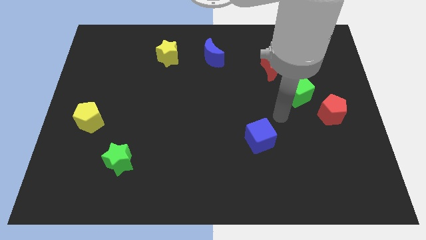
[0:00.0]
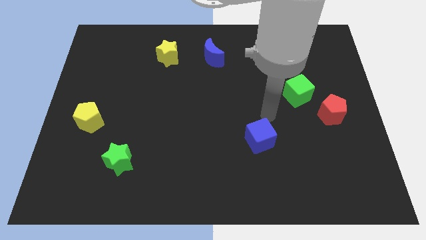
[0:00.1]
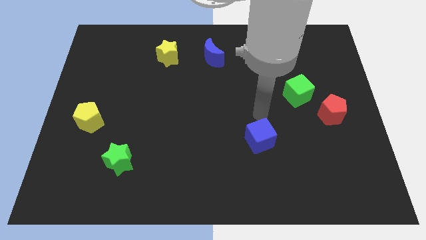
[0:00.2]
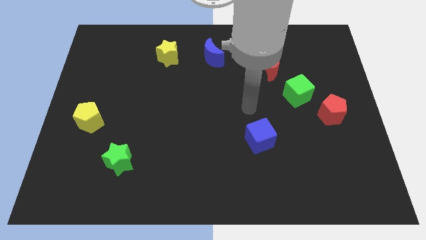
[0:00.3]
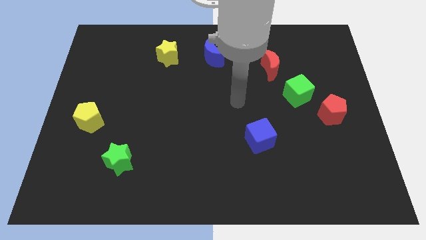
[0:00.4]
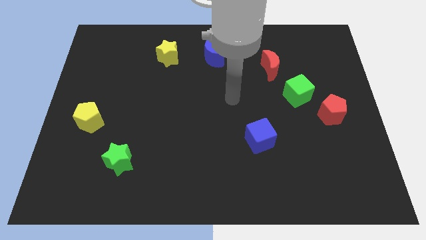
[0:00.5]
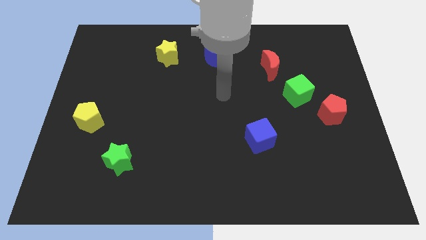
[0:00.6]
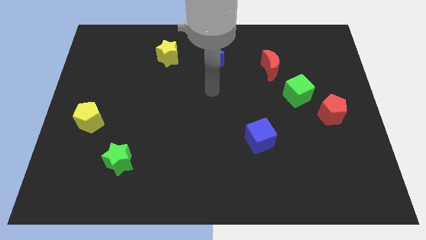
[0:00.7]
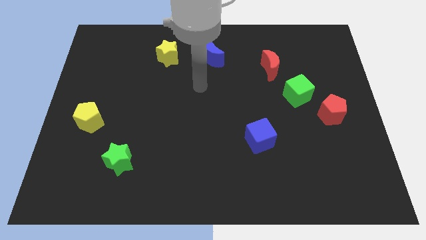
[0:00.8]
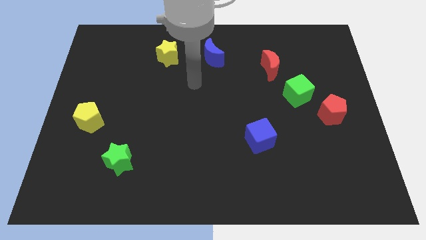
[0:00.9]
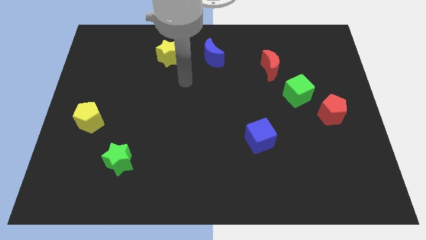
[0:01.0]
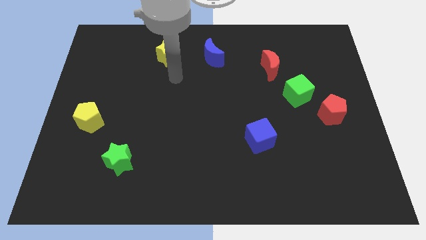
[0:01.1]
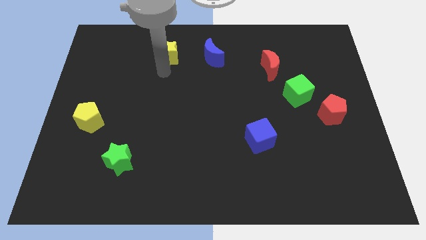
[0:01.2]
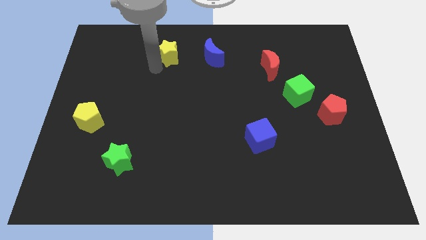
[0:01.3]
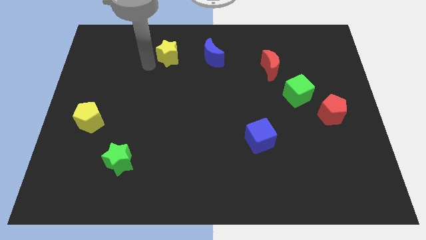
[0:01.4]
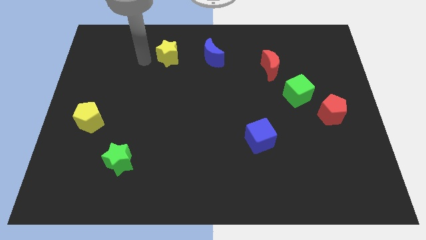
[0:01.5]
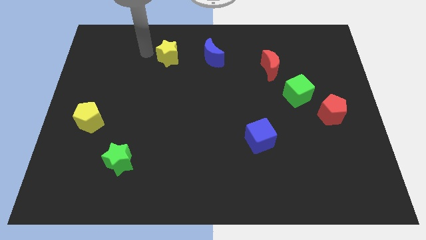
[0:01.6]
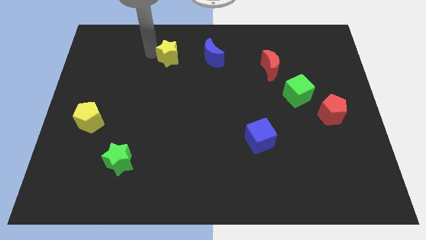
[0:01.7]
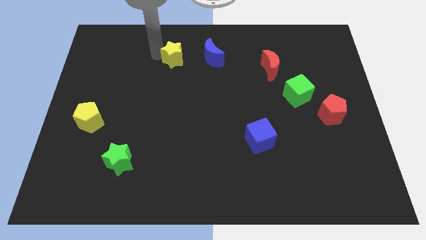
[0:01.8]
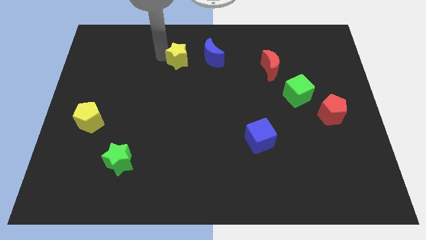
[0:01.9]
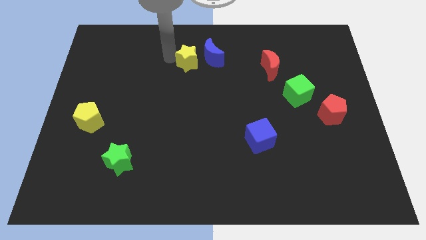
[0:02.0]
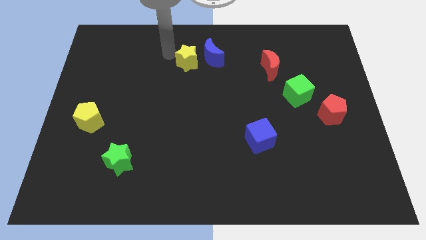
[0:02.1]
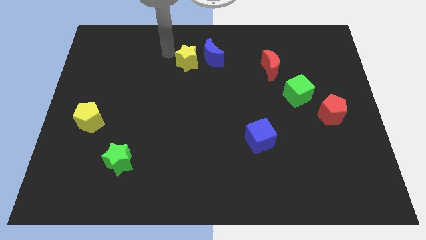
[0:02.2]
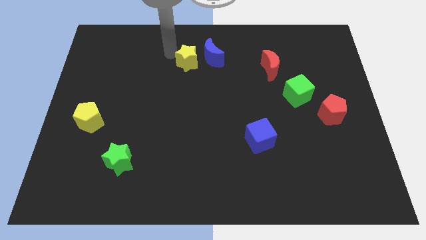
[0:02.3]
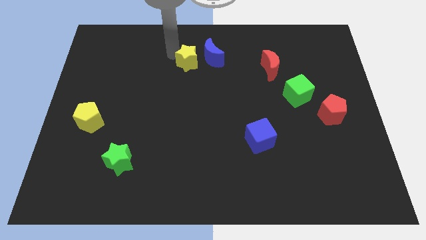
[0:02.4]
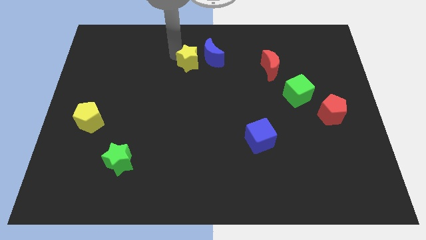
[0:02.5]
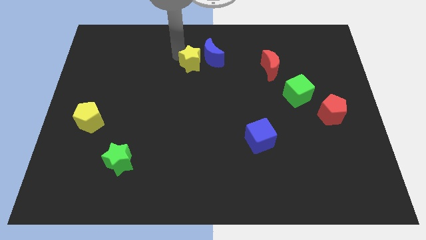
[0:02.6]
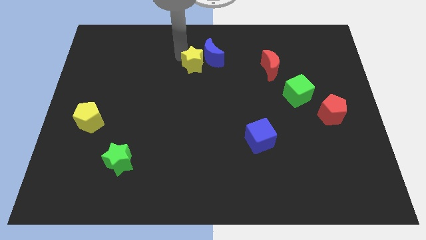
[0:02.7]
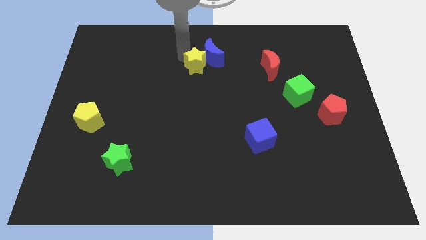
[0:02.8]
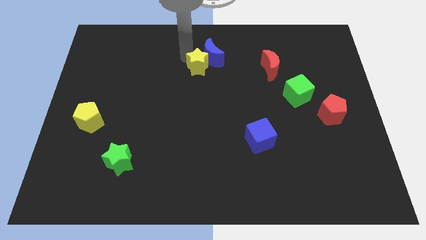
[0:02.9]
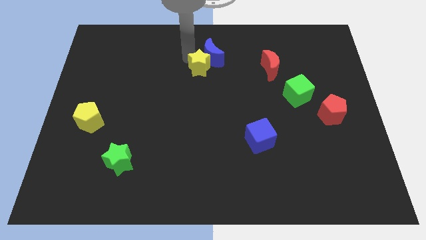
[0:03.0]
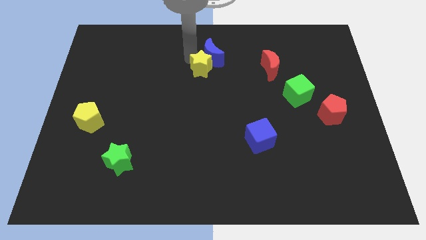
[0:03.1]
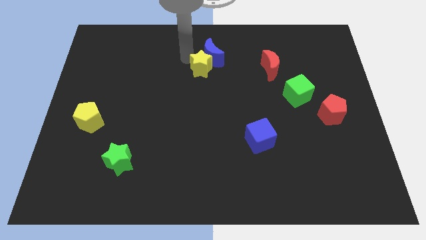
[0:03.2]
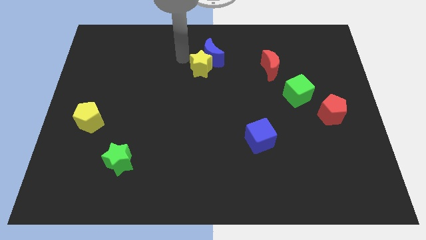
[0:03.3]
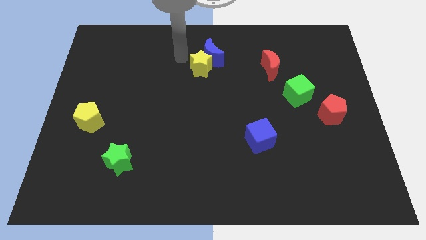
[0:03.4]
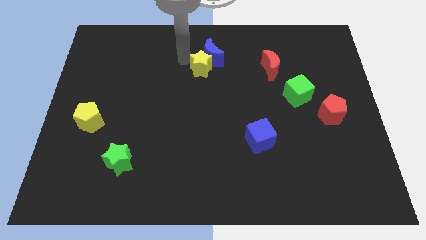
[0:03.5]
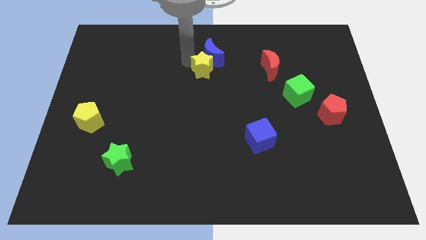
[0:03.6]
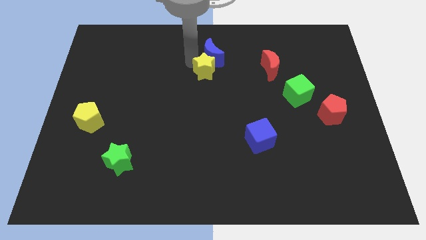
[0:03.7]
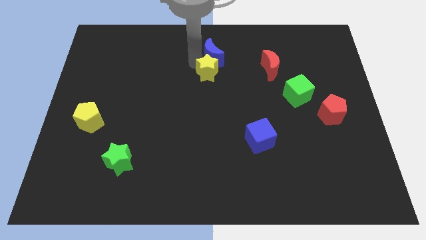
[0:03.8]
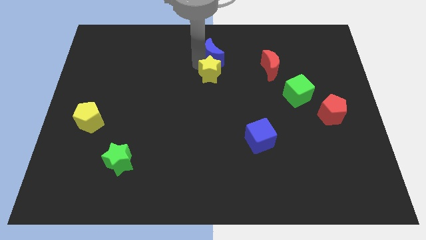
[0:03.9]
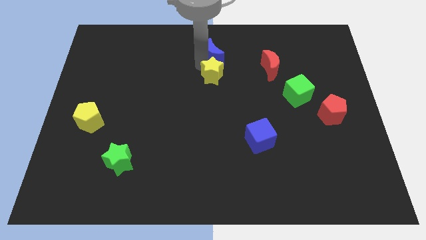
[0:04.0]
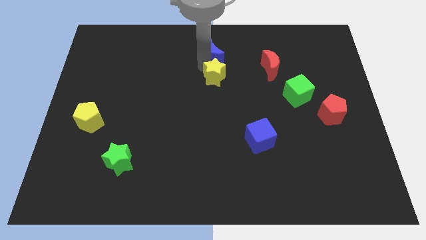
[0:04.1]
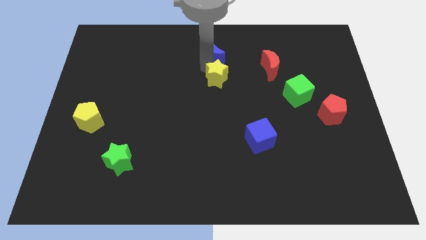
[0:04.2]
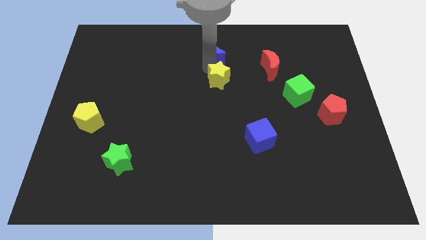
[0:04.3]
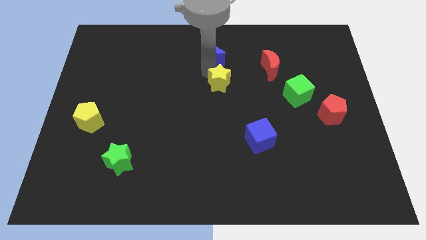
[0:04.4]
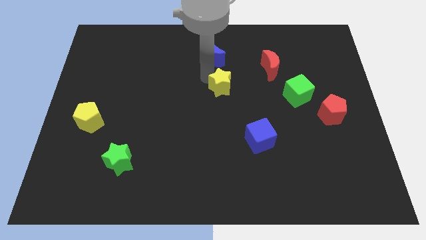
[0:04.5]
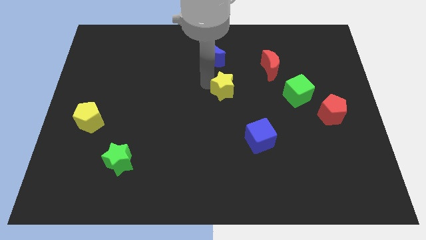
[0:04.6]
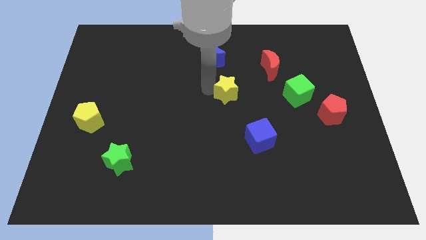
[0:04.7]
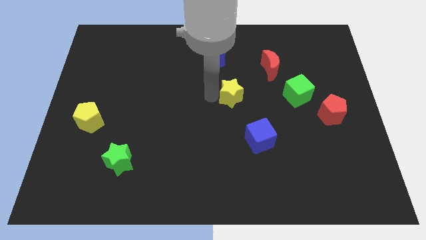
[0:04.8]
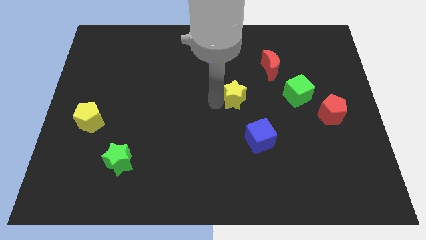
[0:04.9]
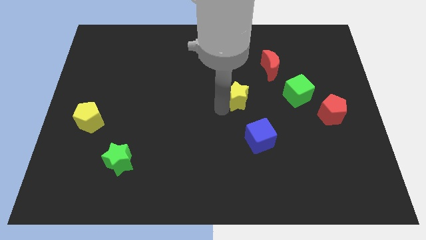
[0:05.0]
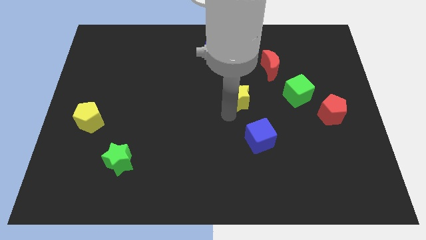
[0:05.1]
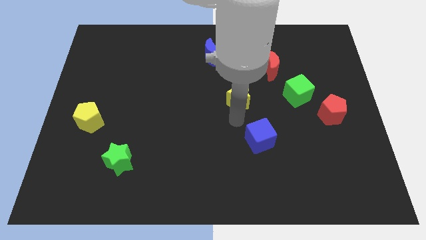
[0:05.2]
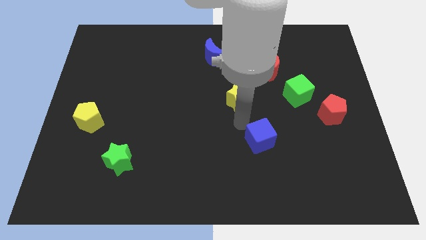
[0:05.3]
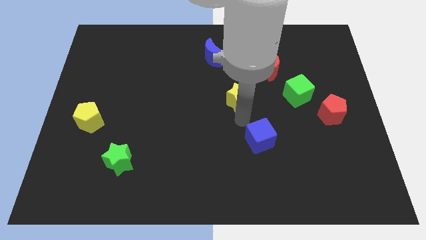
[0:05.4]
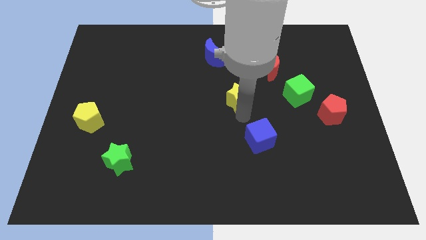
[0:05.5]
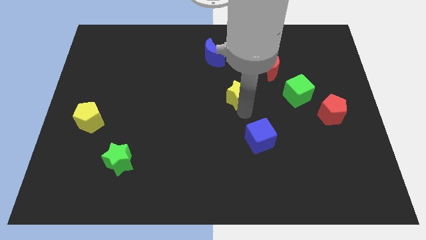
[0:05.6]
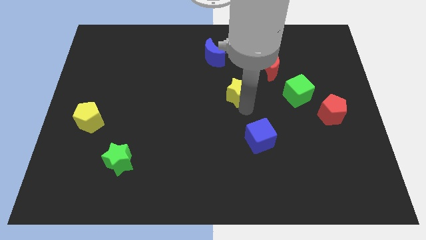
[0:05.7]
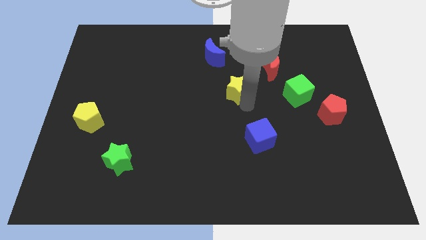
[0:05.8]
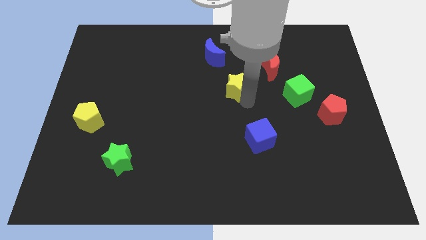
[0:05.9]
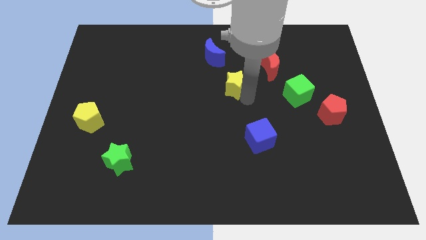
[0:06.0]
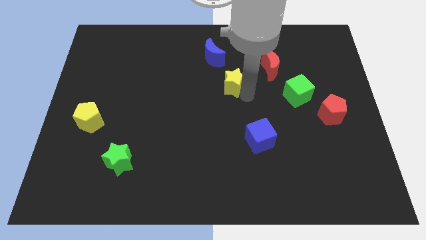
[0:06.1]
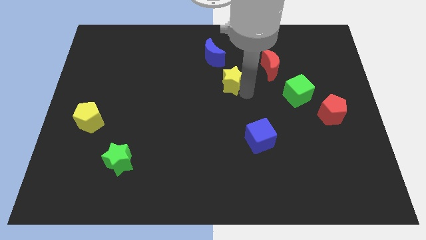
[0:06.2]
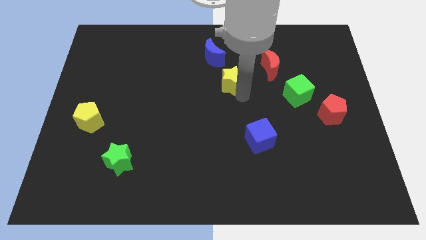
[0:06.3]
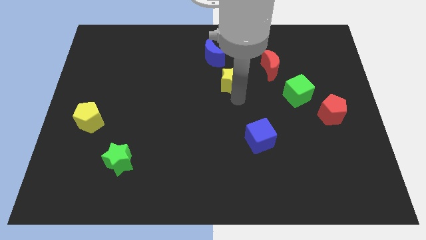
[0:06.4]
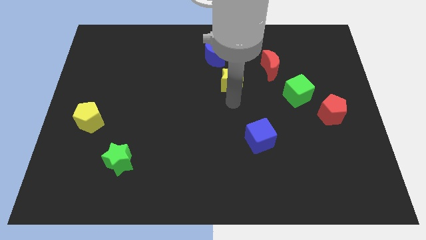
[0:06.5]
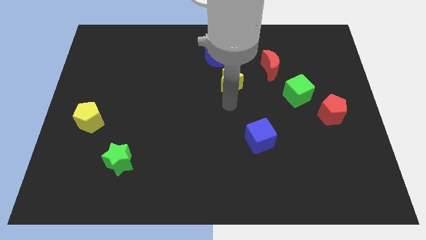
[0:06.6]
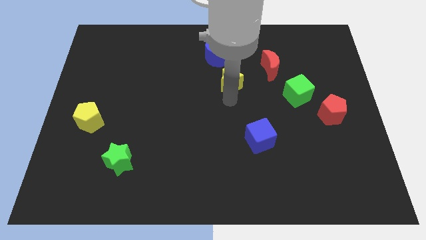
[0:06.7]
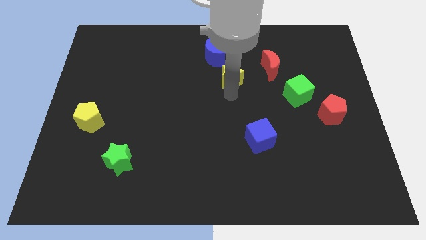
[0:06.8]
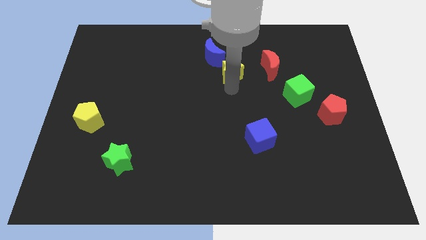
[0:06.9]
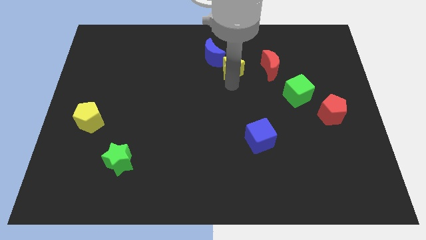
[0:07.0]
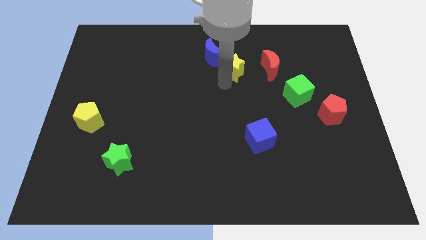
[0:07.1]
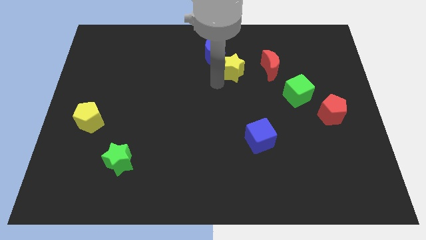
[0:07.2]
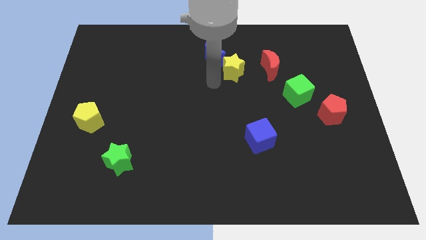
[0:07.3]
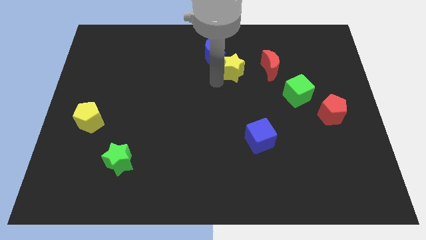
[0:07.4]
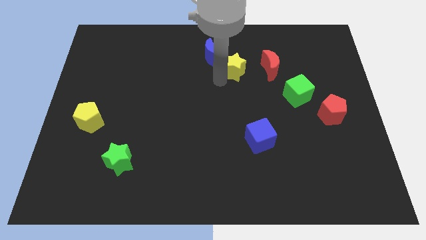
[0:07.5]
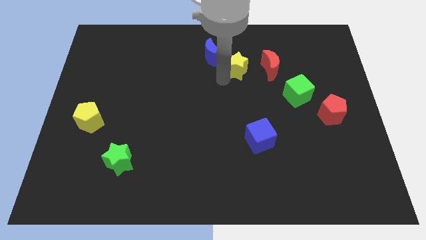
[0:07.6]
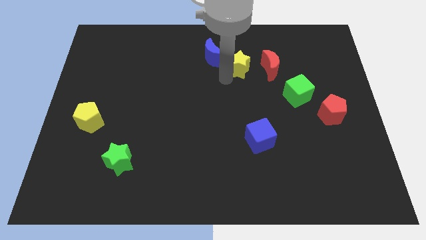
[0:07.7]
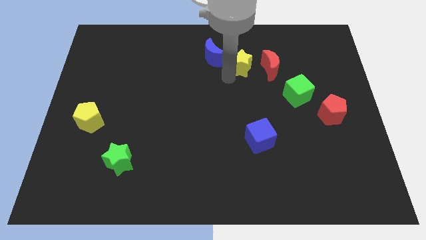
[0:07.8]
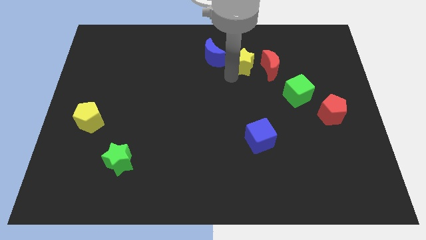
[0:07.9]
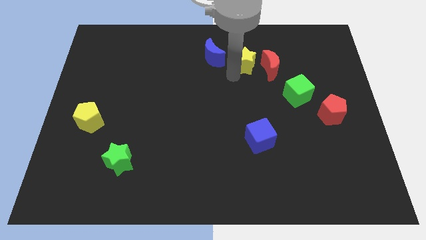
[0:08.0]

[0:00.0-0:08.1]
slide the yellow star right

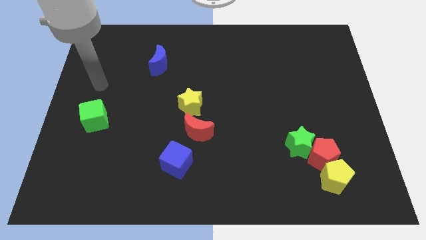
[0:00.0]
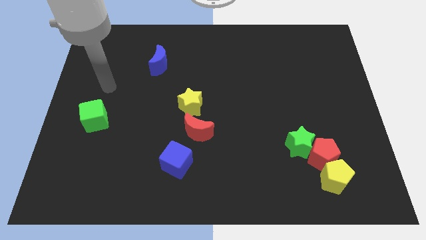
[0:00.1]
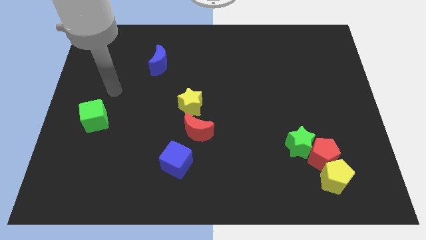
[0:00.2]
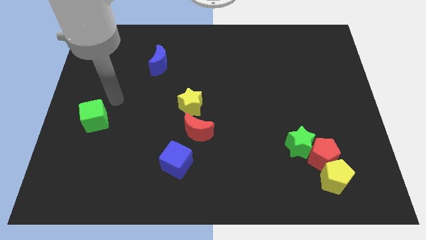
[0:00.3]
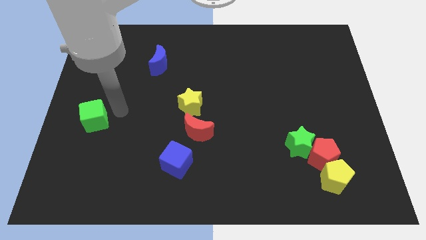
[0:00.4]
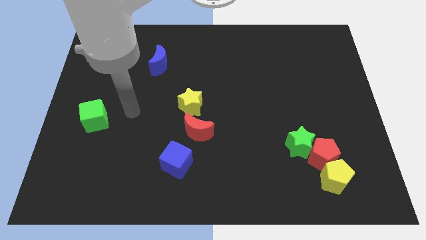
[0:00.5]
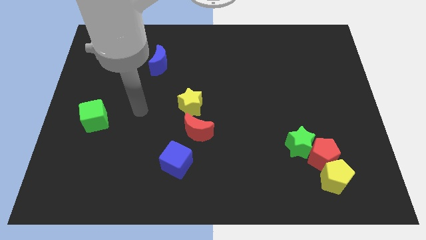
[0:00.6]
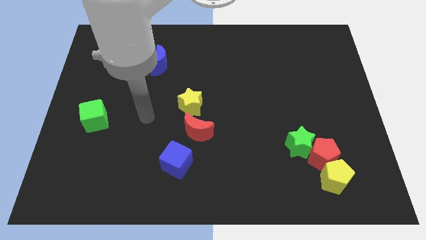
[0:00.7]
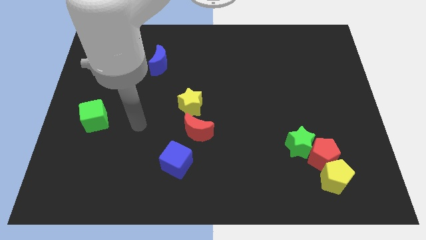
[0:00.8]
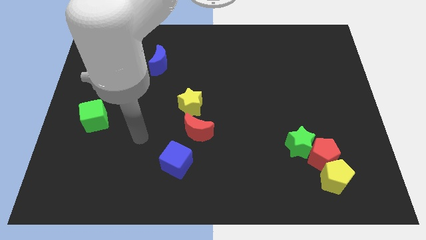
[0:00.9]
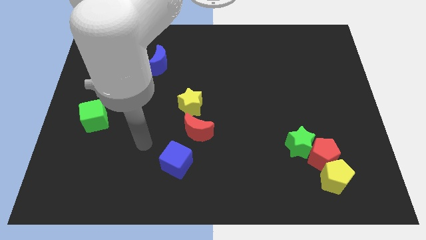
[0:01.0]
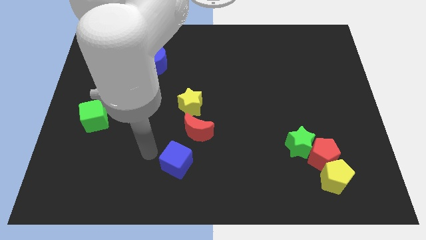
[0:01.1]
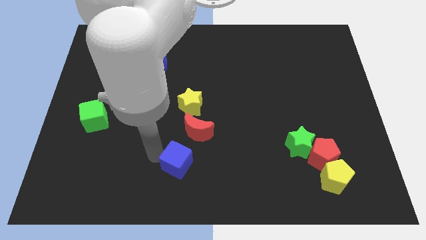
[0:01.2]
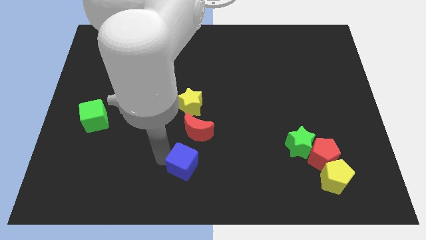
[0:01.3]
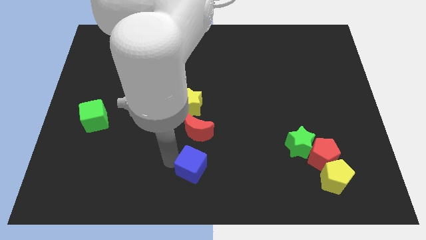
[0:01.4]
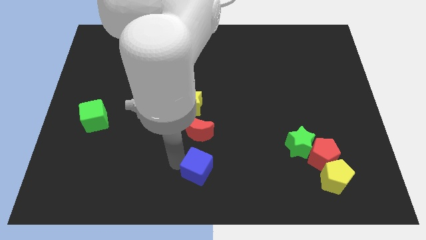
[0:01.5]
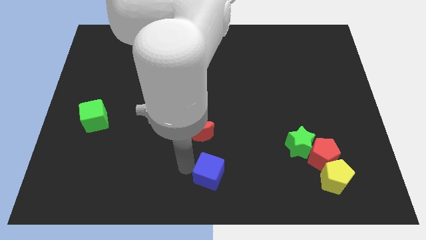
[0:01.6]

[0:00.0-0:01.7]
slide the blue cube right slightly
